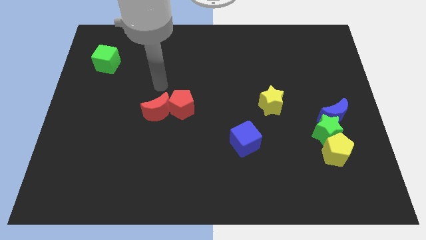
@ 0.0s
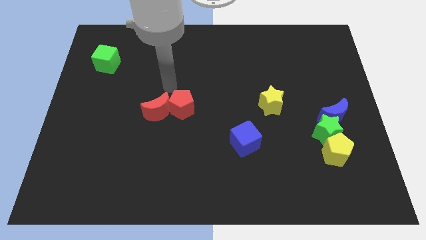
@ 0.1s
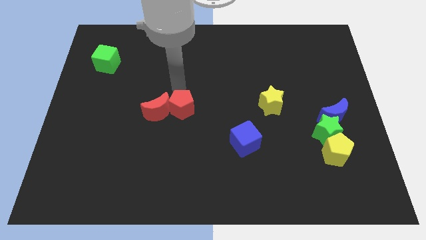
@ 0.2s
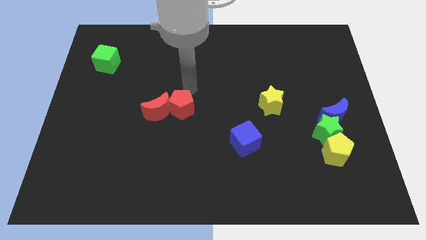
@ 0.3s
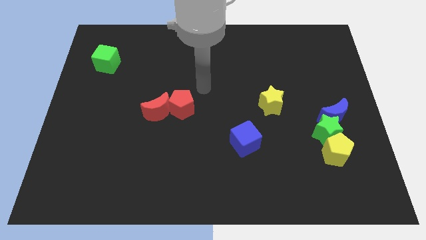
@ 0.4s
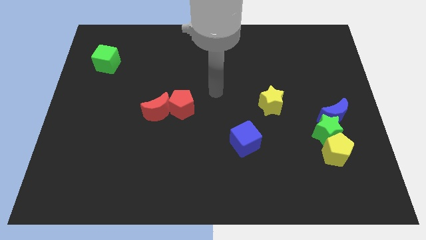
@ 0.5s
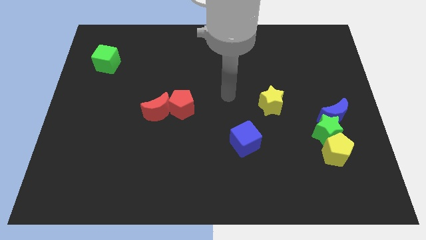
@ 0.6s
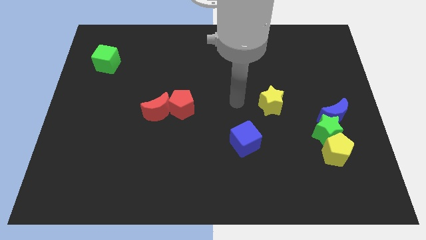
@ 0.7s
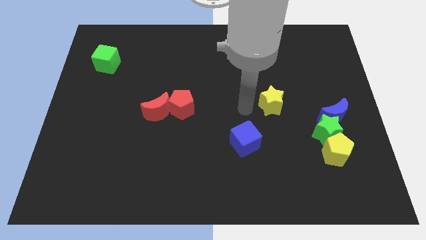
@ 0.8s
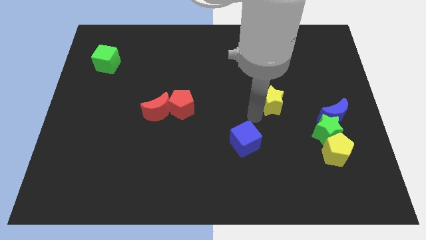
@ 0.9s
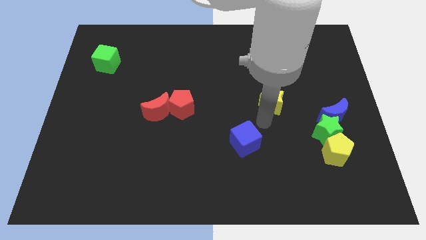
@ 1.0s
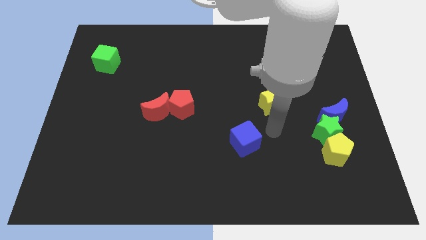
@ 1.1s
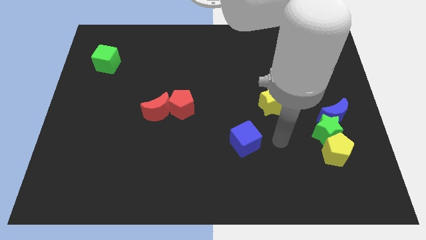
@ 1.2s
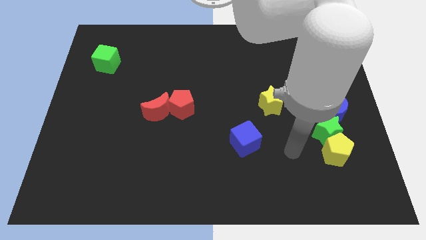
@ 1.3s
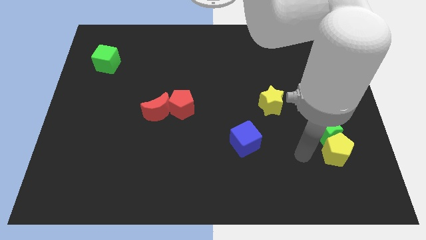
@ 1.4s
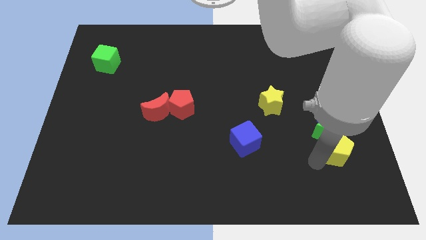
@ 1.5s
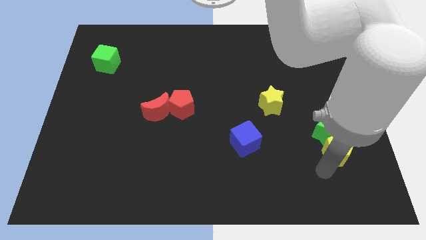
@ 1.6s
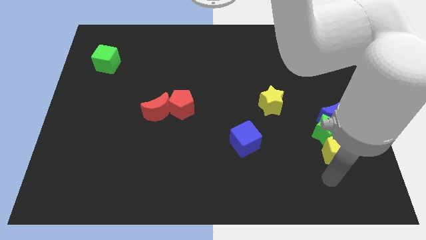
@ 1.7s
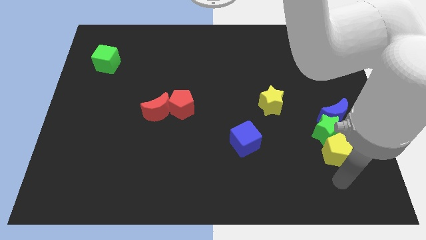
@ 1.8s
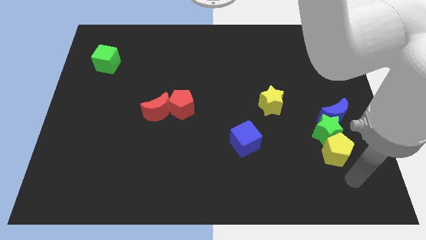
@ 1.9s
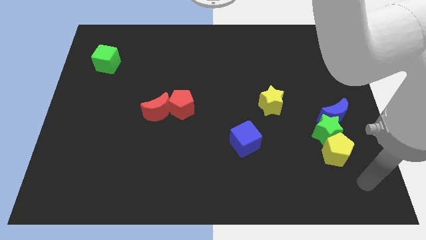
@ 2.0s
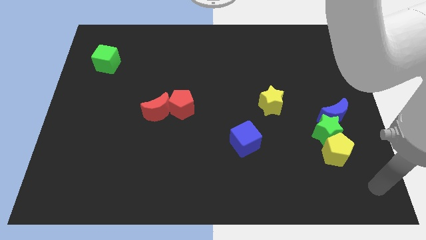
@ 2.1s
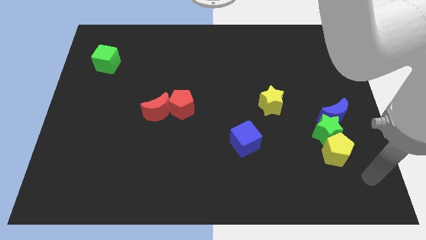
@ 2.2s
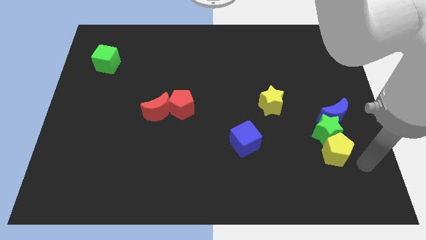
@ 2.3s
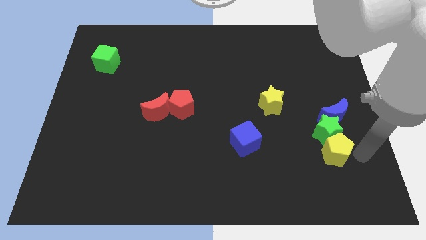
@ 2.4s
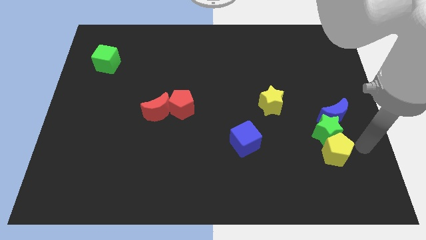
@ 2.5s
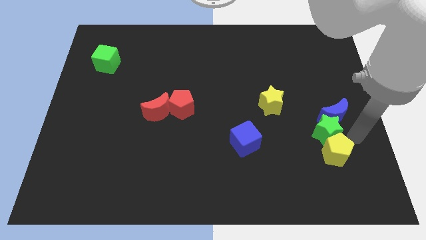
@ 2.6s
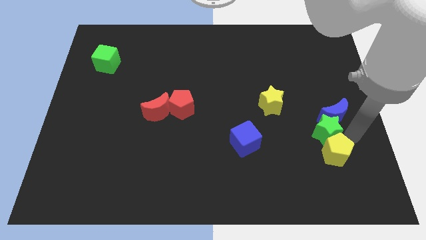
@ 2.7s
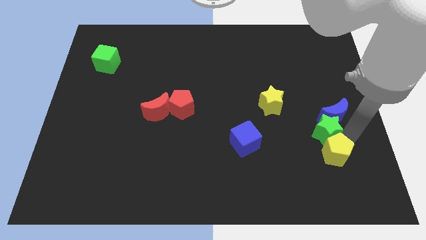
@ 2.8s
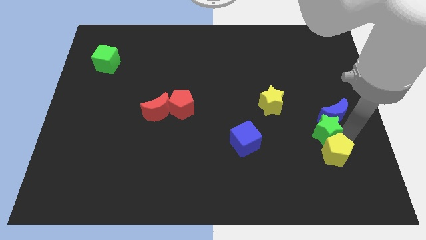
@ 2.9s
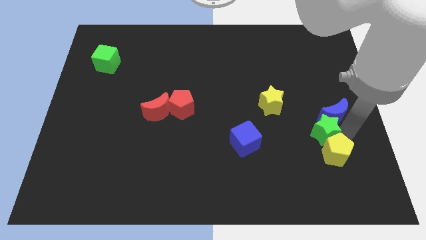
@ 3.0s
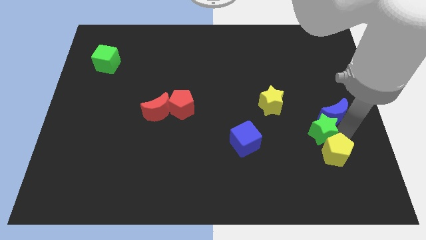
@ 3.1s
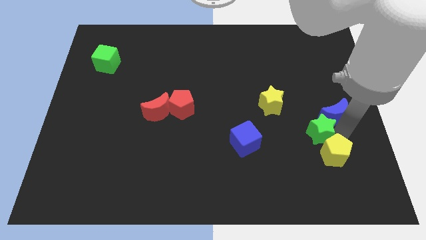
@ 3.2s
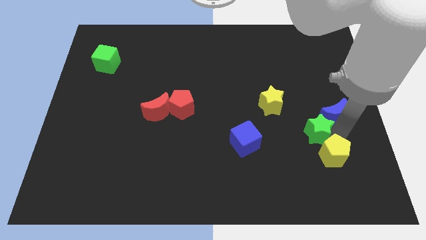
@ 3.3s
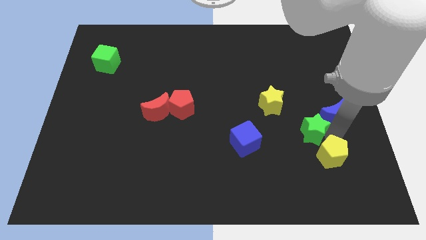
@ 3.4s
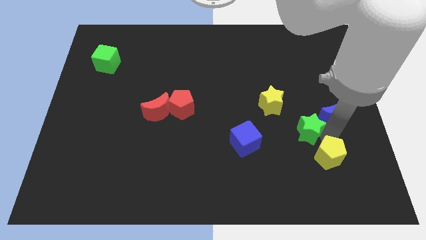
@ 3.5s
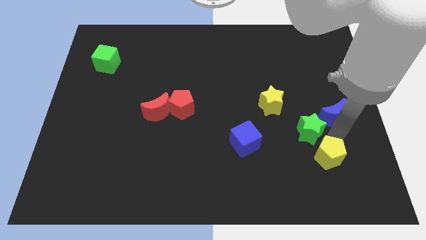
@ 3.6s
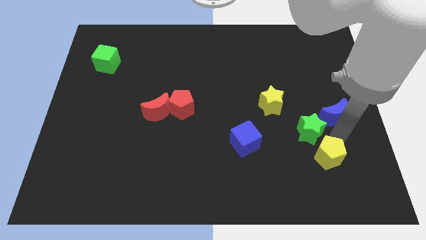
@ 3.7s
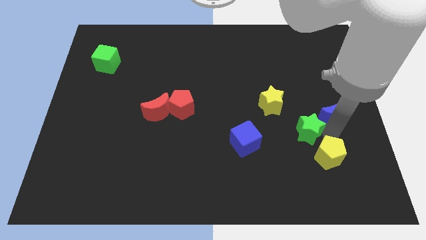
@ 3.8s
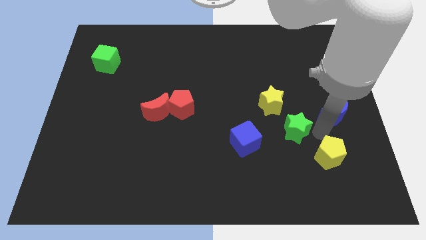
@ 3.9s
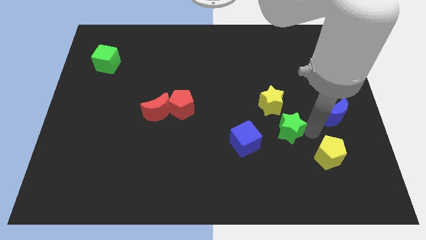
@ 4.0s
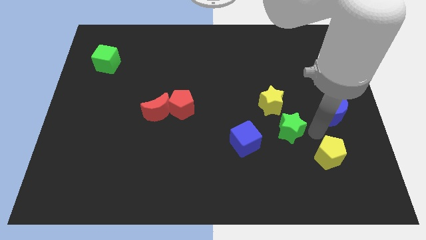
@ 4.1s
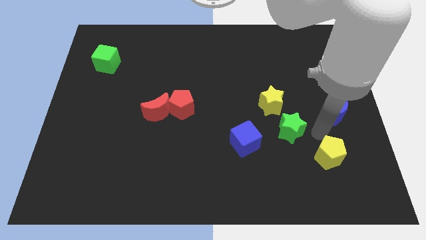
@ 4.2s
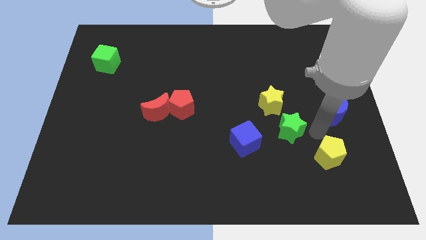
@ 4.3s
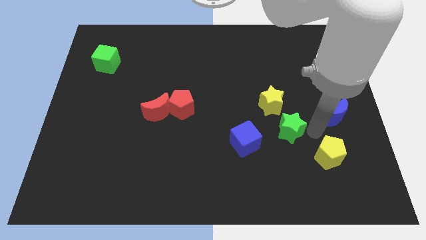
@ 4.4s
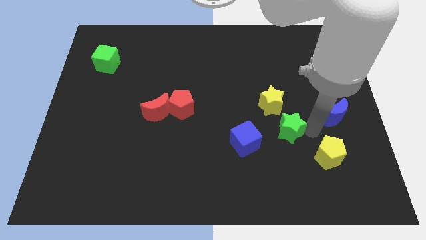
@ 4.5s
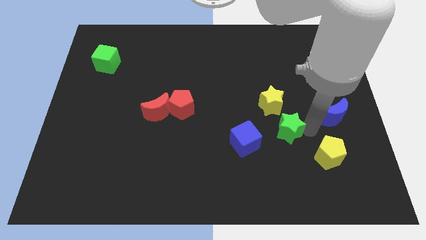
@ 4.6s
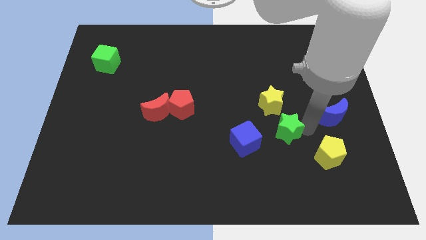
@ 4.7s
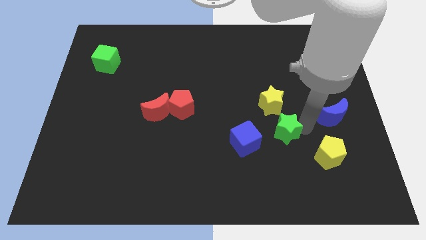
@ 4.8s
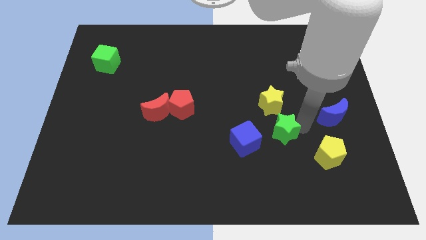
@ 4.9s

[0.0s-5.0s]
move the green star away from the blue moon and yellow pentagon

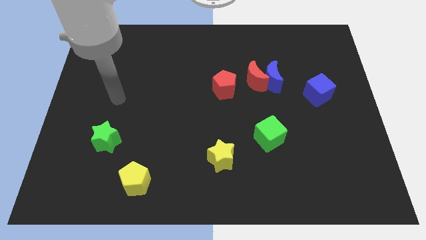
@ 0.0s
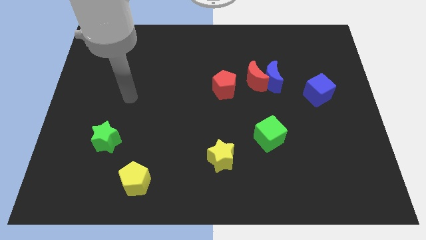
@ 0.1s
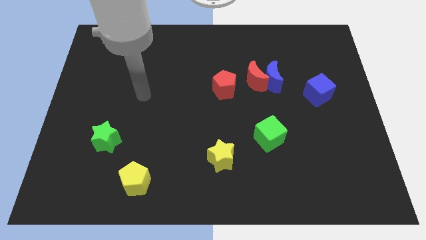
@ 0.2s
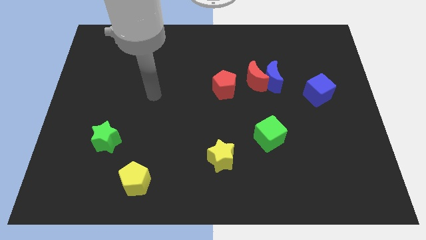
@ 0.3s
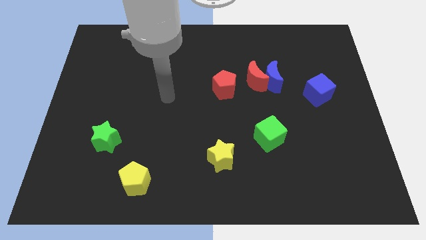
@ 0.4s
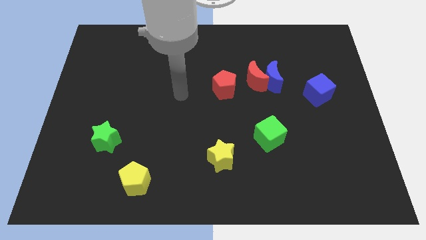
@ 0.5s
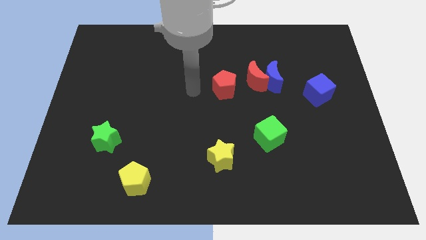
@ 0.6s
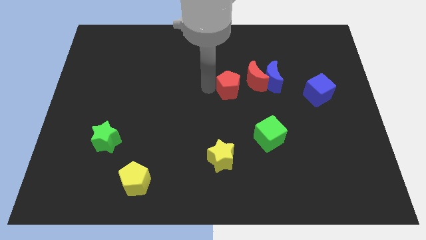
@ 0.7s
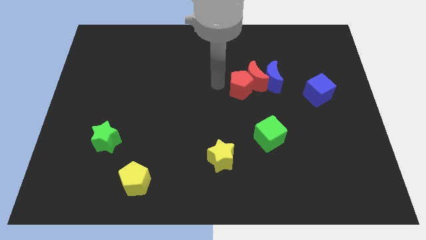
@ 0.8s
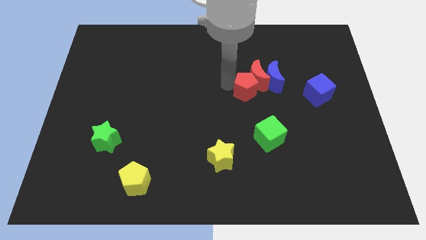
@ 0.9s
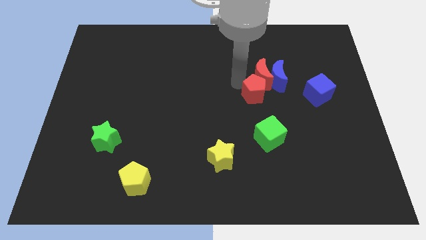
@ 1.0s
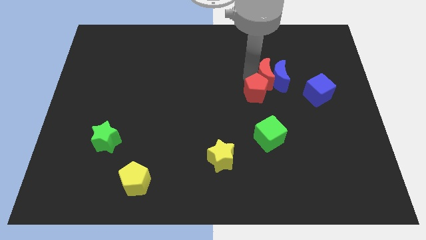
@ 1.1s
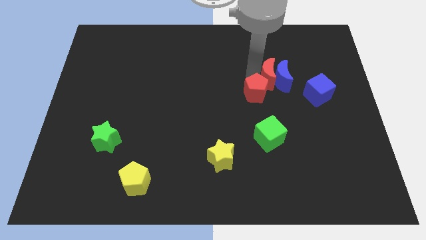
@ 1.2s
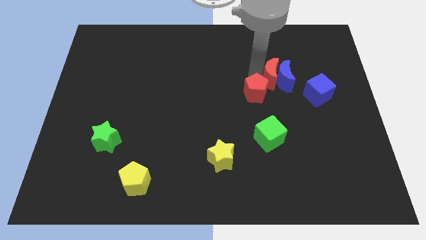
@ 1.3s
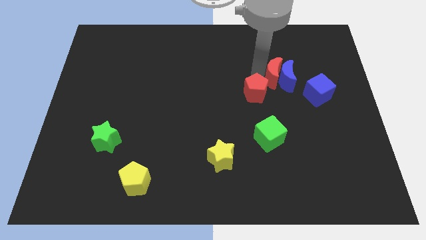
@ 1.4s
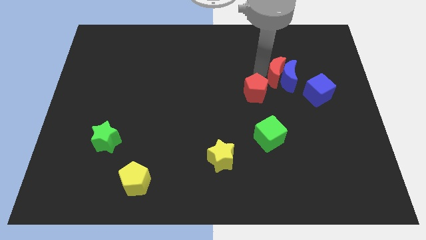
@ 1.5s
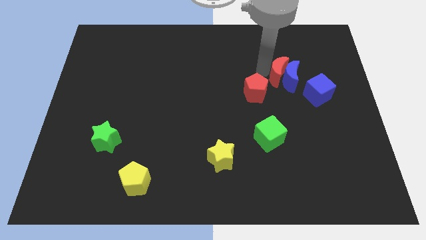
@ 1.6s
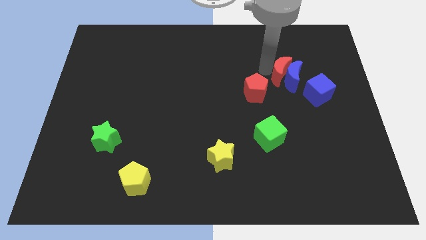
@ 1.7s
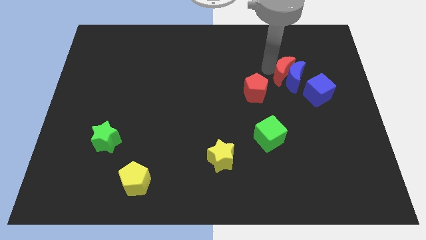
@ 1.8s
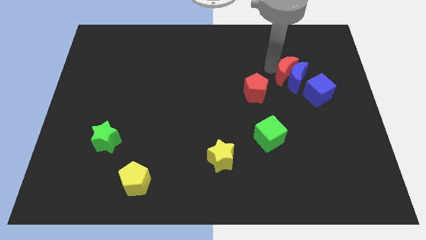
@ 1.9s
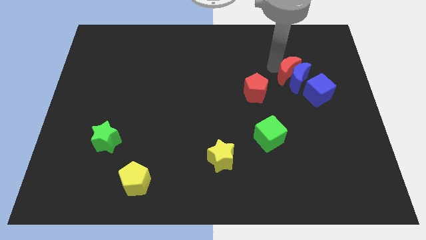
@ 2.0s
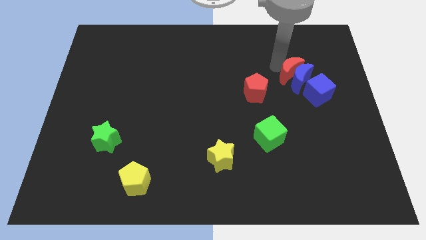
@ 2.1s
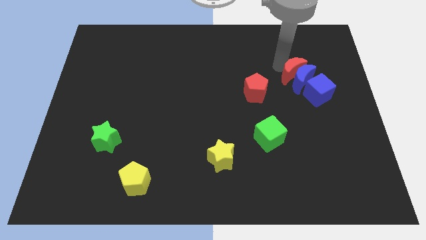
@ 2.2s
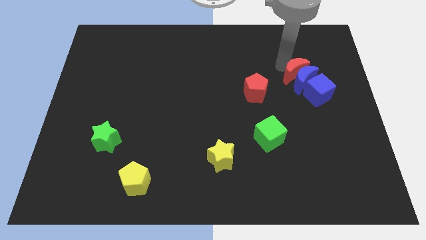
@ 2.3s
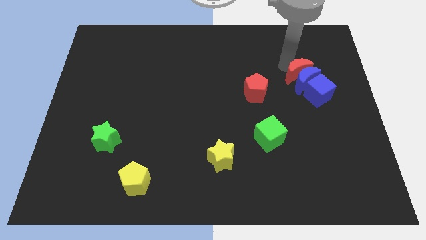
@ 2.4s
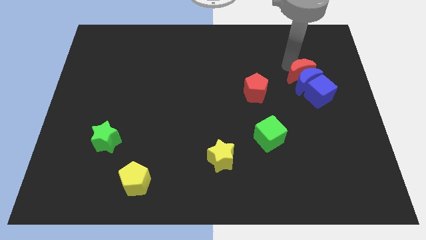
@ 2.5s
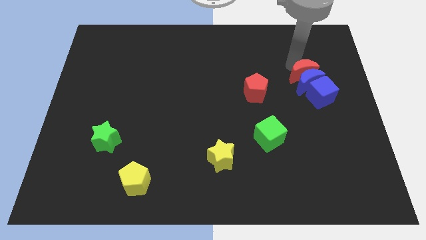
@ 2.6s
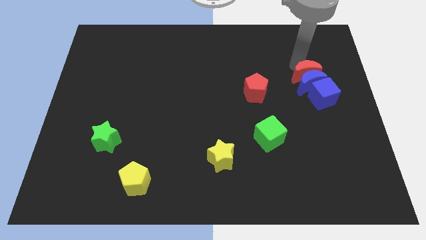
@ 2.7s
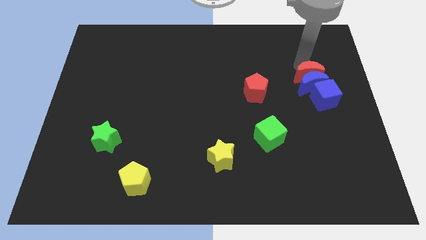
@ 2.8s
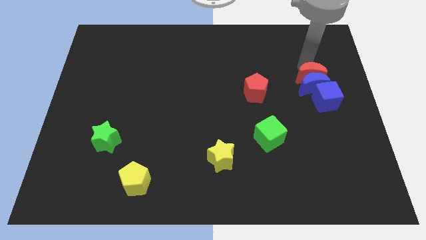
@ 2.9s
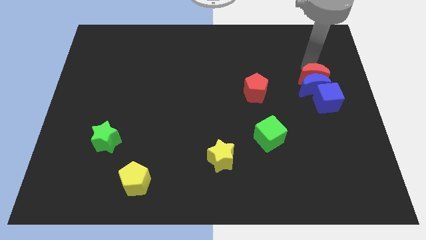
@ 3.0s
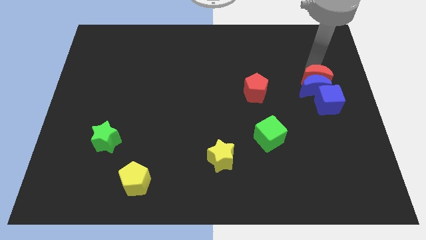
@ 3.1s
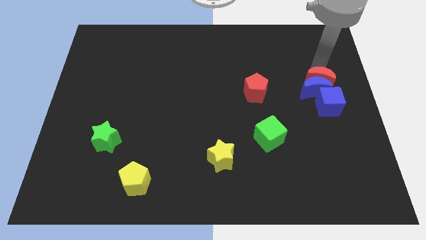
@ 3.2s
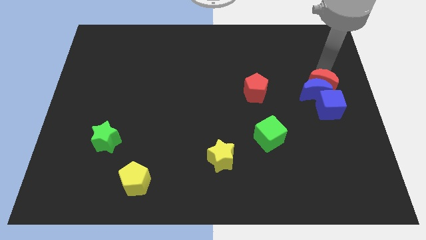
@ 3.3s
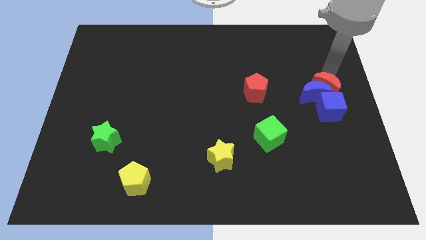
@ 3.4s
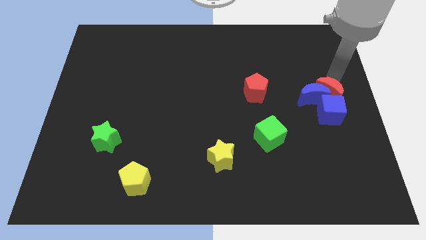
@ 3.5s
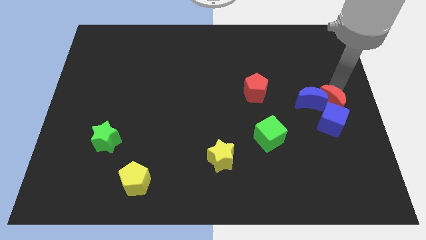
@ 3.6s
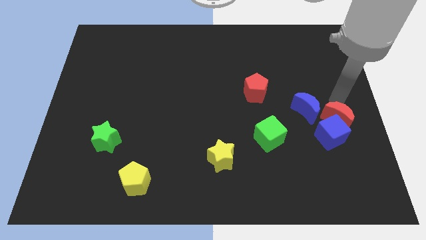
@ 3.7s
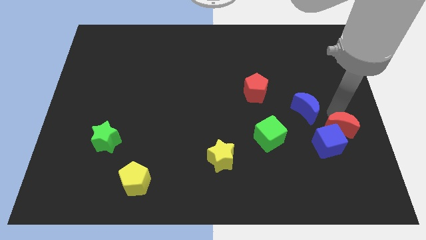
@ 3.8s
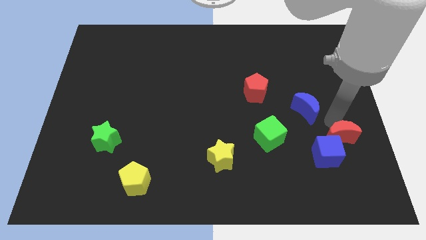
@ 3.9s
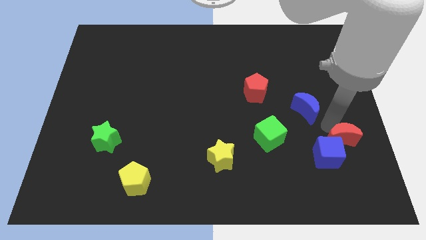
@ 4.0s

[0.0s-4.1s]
move the blue moon away from the red moon

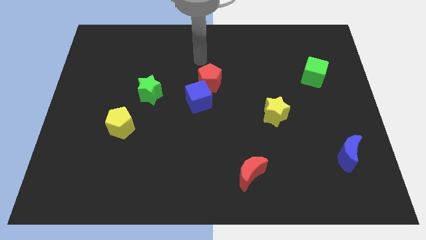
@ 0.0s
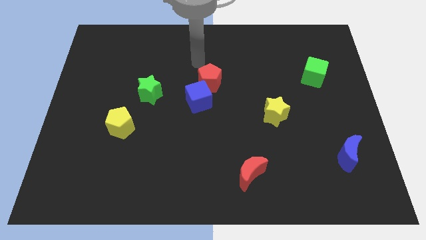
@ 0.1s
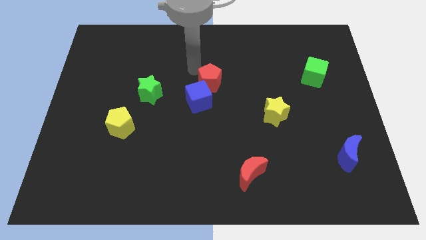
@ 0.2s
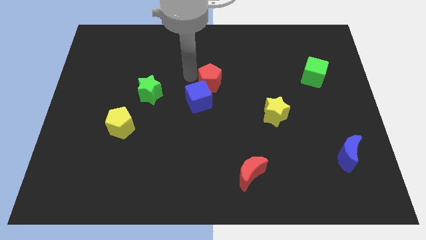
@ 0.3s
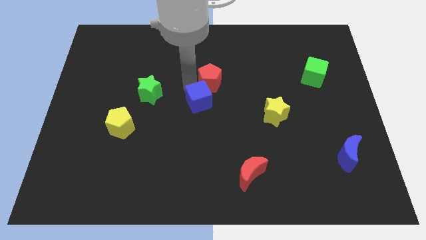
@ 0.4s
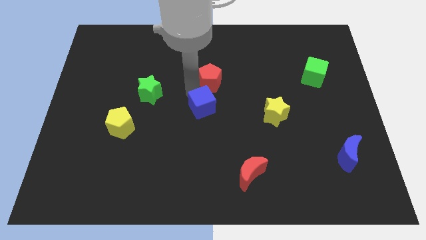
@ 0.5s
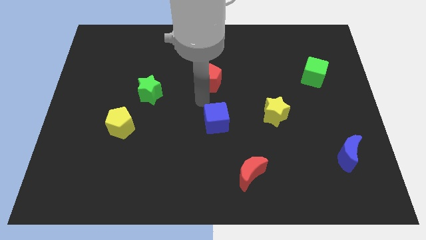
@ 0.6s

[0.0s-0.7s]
pull the red pentagon apart from the blue cube
